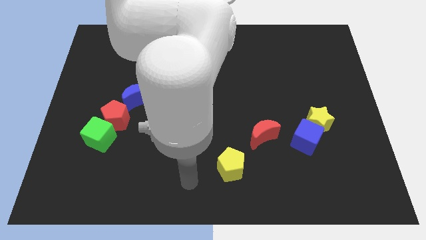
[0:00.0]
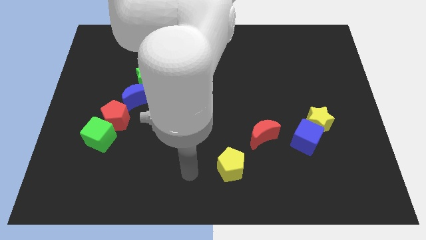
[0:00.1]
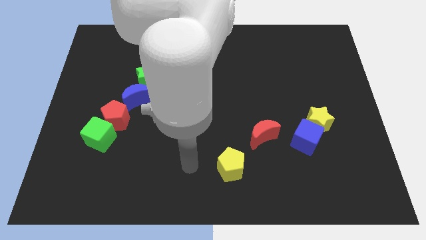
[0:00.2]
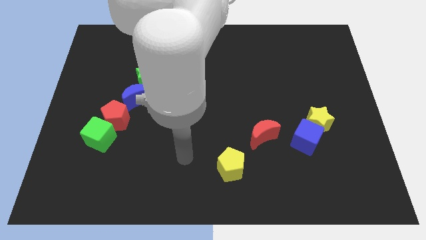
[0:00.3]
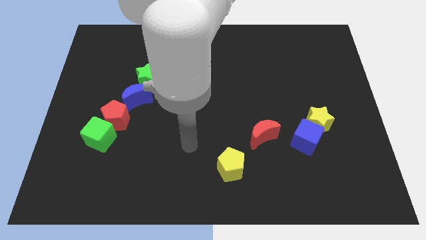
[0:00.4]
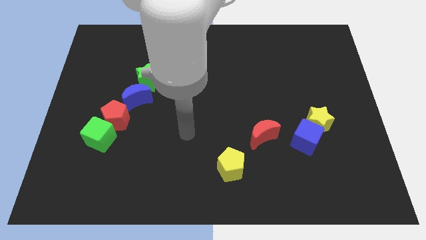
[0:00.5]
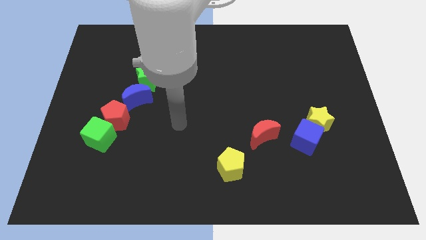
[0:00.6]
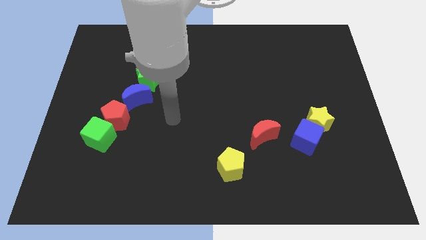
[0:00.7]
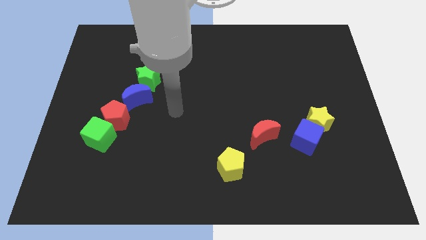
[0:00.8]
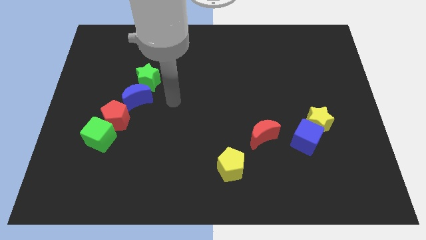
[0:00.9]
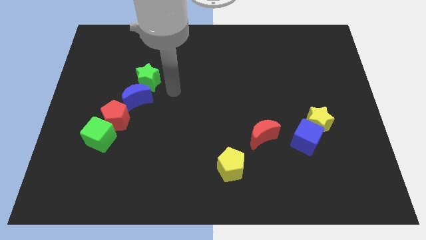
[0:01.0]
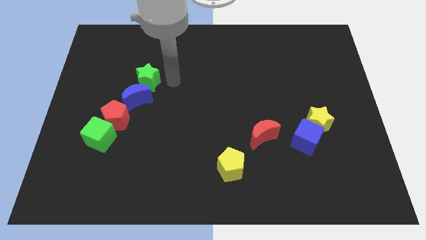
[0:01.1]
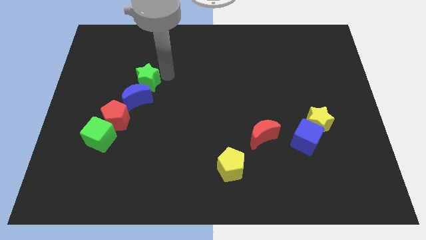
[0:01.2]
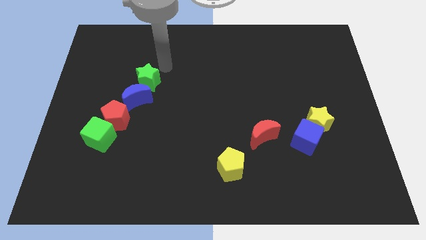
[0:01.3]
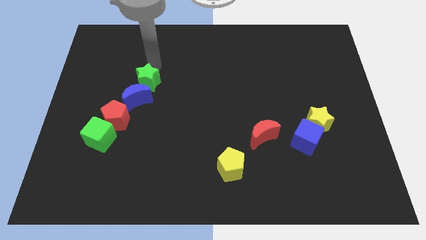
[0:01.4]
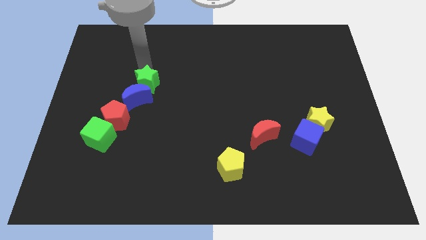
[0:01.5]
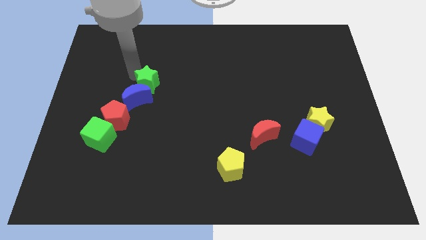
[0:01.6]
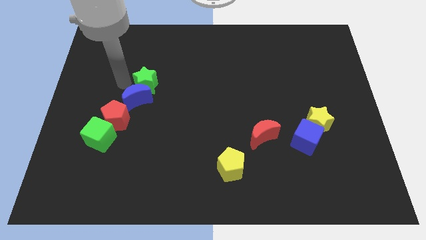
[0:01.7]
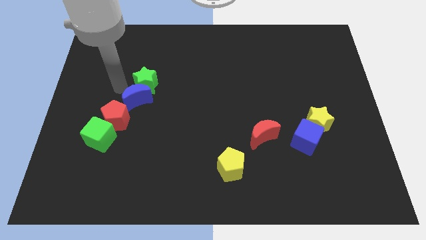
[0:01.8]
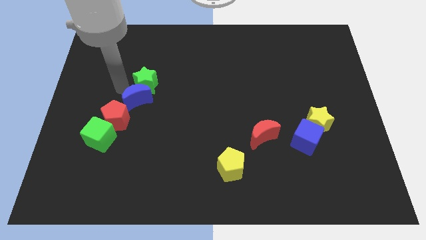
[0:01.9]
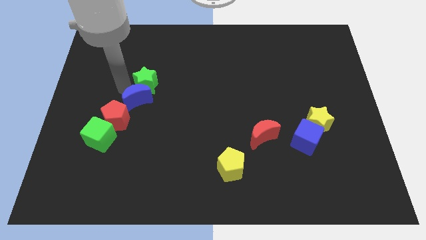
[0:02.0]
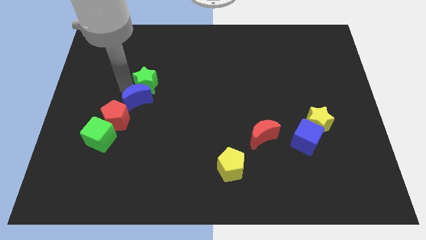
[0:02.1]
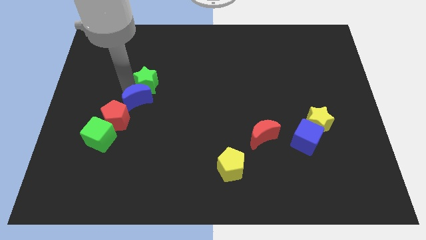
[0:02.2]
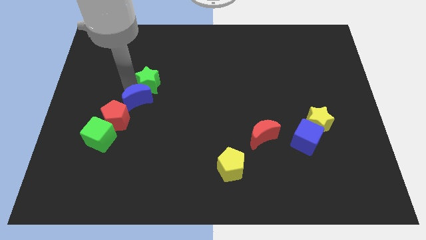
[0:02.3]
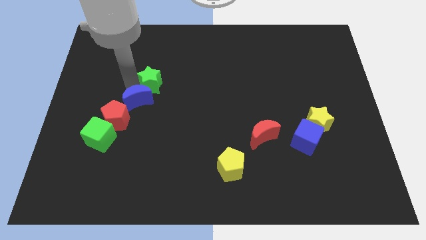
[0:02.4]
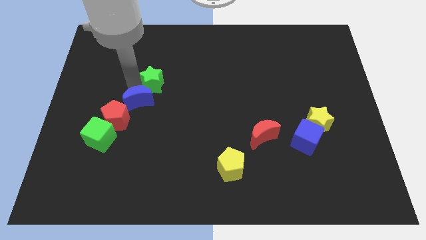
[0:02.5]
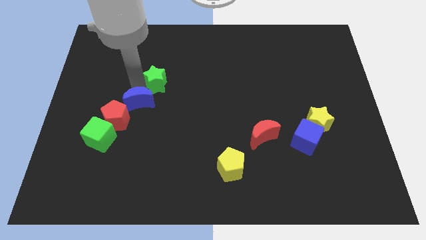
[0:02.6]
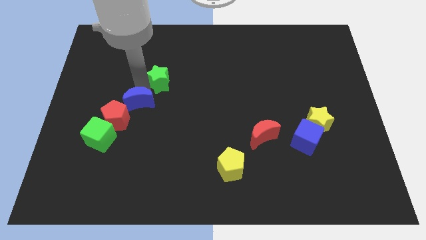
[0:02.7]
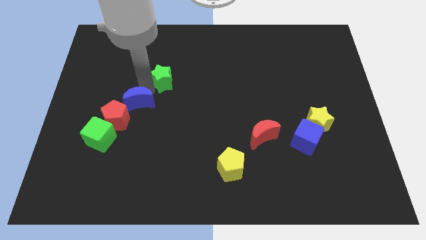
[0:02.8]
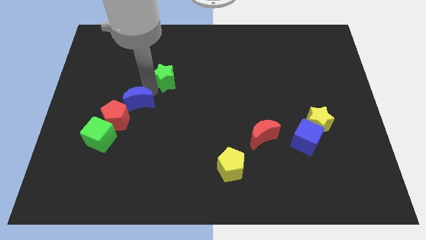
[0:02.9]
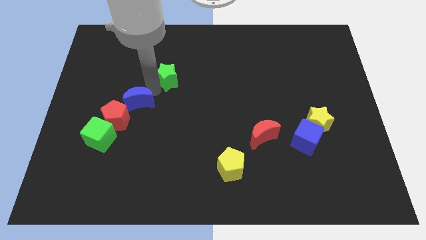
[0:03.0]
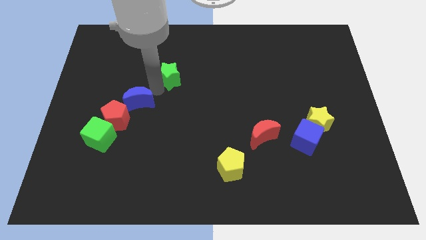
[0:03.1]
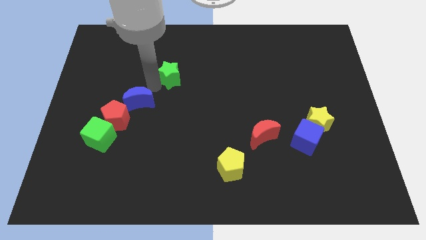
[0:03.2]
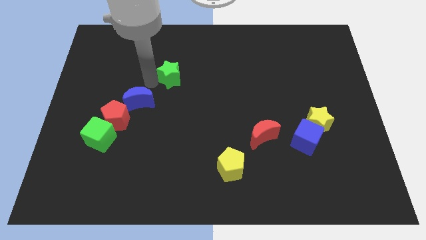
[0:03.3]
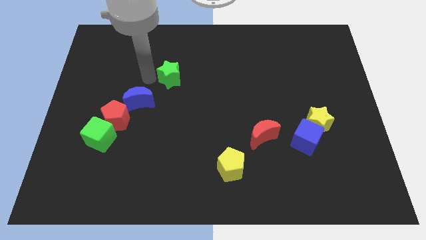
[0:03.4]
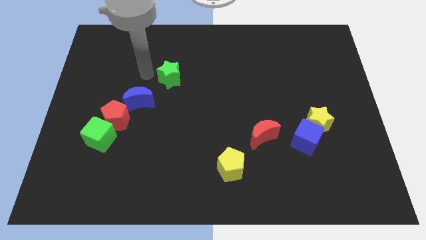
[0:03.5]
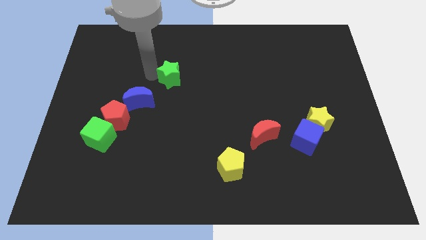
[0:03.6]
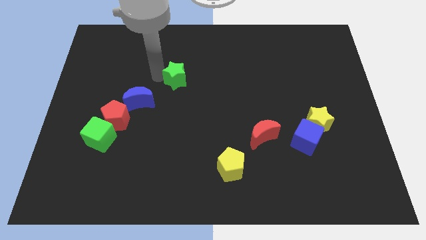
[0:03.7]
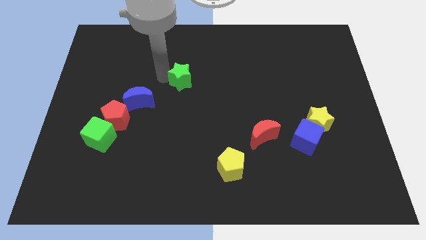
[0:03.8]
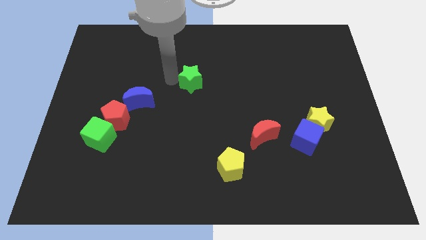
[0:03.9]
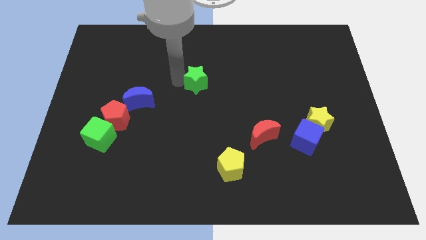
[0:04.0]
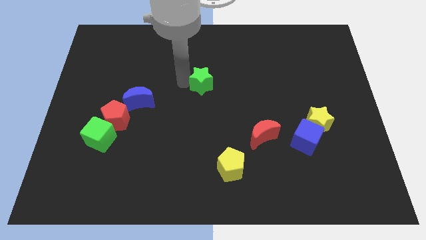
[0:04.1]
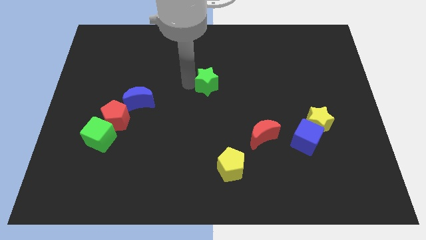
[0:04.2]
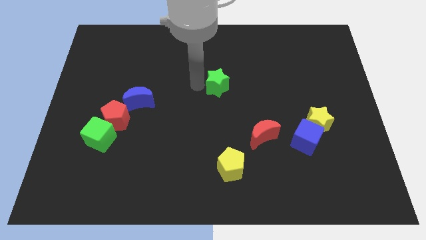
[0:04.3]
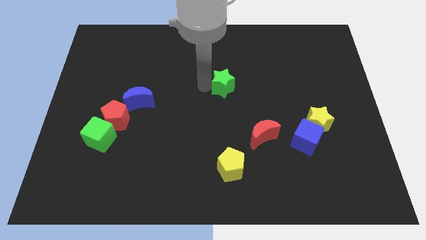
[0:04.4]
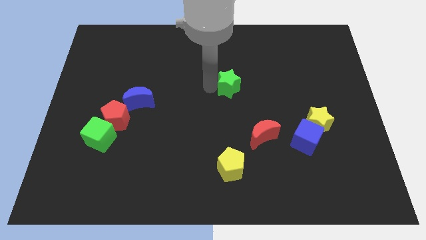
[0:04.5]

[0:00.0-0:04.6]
slide the green star right

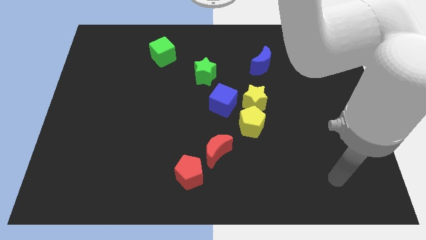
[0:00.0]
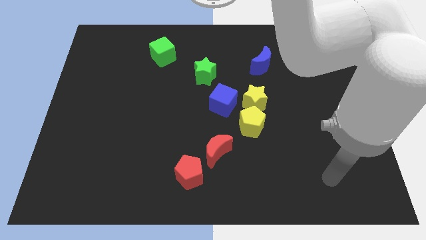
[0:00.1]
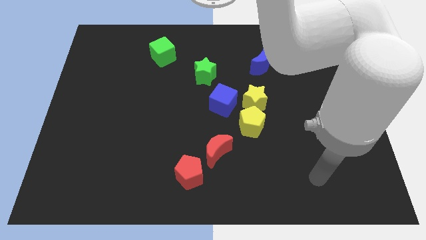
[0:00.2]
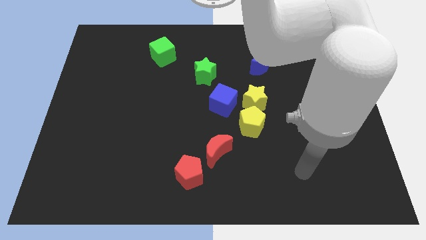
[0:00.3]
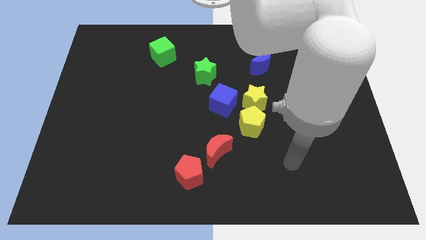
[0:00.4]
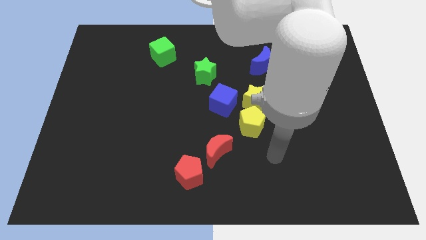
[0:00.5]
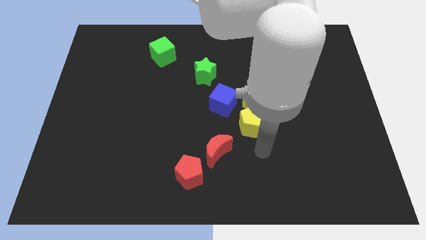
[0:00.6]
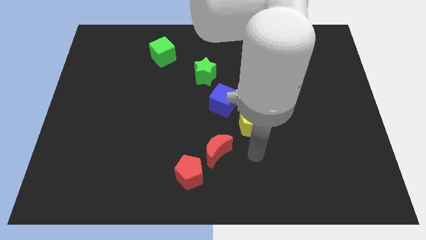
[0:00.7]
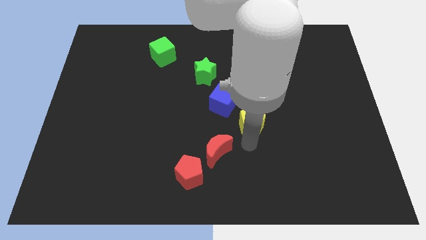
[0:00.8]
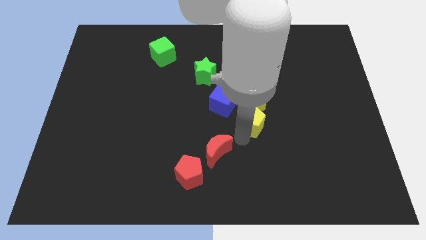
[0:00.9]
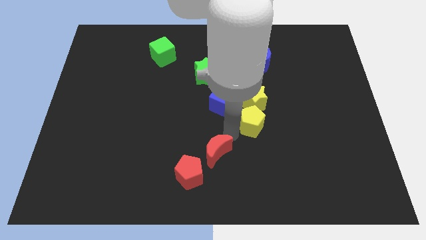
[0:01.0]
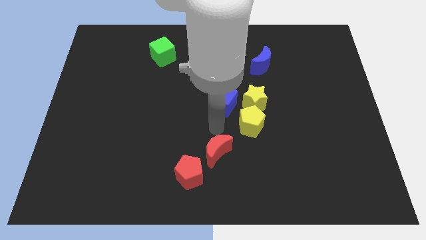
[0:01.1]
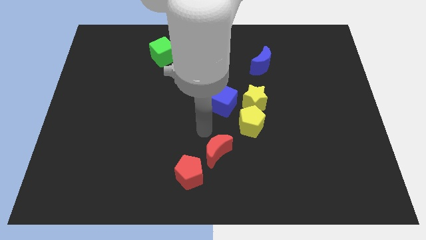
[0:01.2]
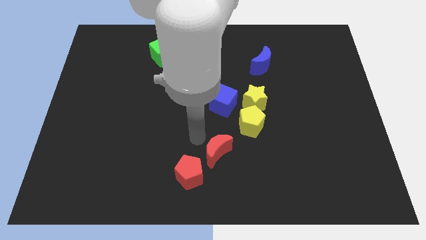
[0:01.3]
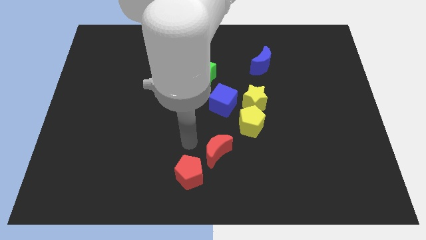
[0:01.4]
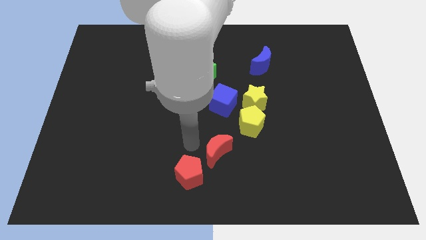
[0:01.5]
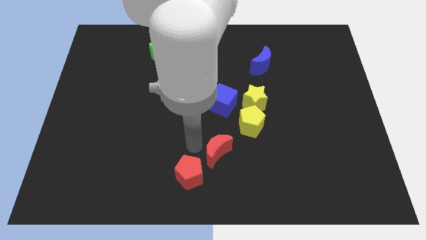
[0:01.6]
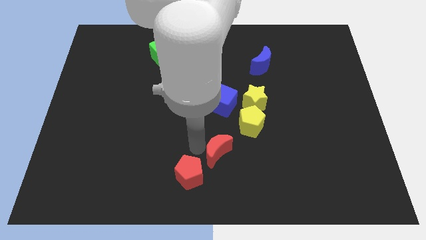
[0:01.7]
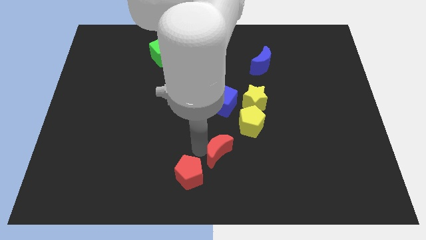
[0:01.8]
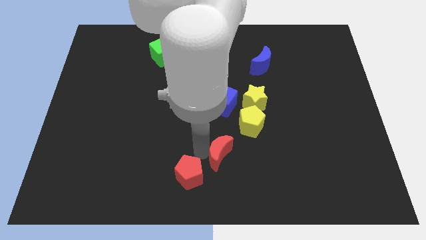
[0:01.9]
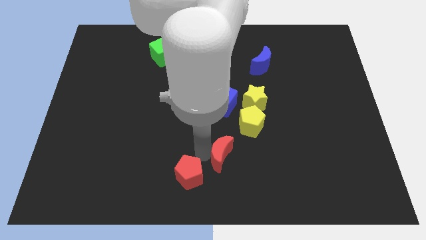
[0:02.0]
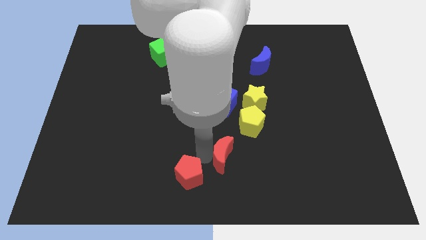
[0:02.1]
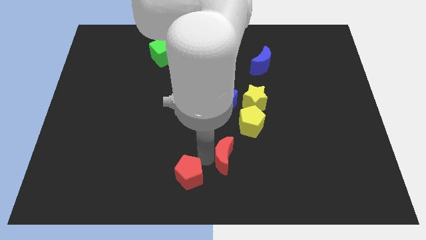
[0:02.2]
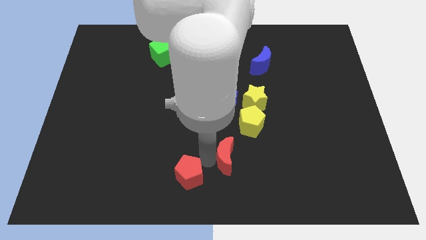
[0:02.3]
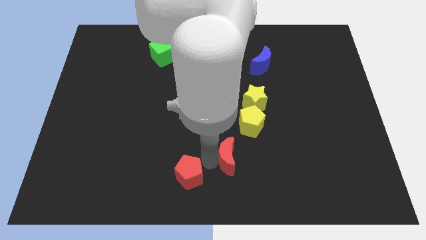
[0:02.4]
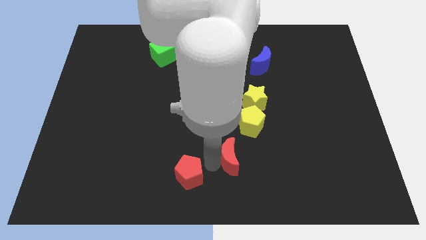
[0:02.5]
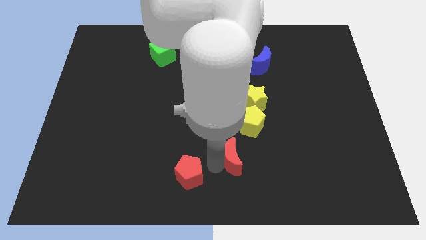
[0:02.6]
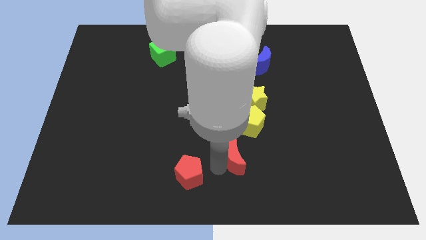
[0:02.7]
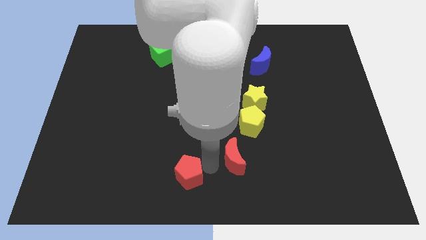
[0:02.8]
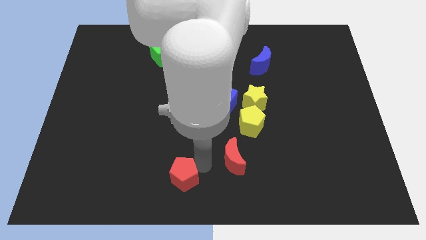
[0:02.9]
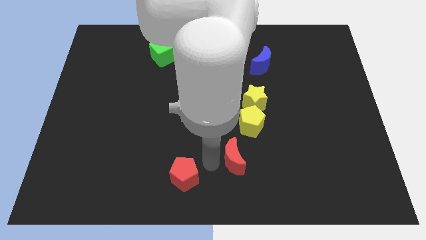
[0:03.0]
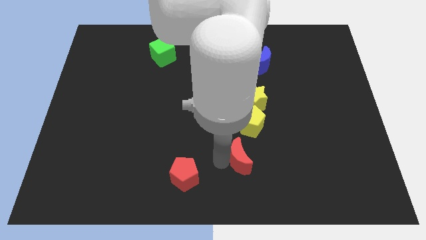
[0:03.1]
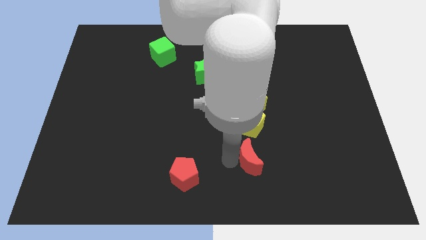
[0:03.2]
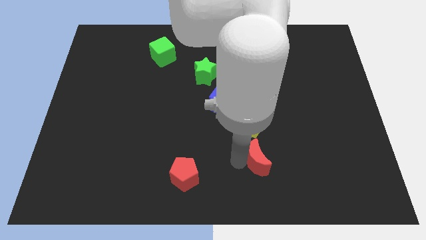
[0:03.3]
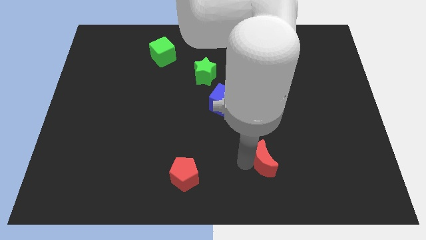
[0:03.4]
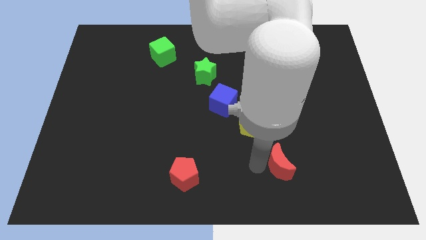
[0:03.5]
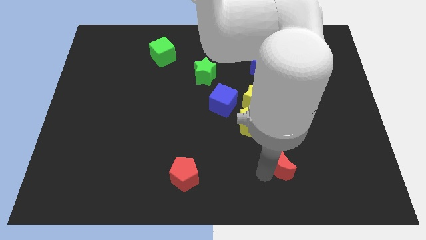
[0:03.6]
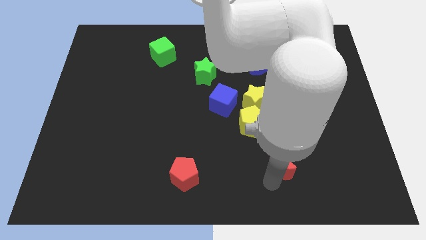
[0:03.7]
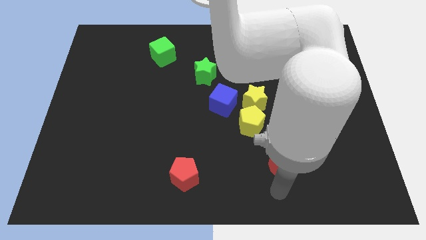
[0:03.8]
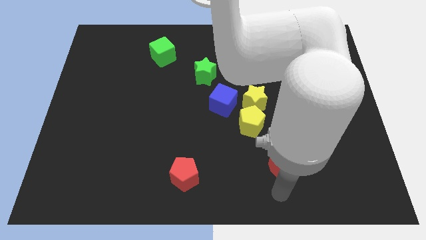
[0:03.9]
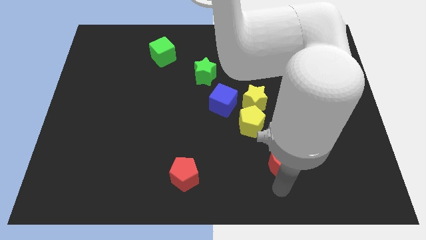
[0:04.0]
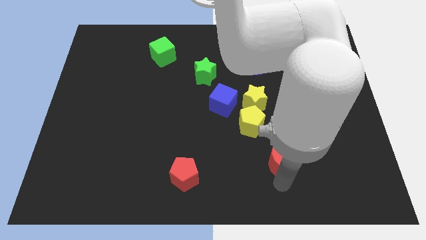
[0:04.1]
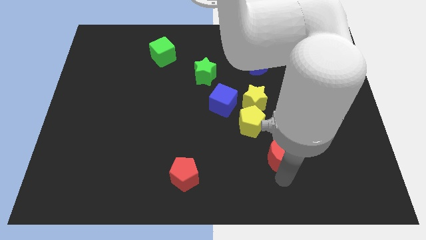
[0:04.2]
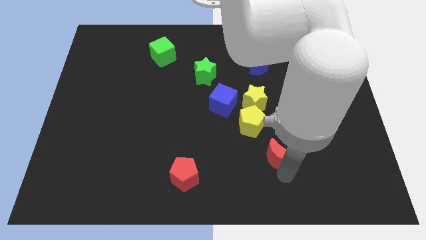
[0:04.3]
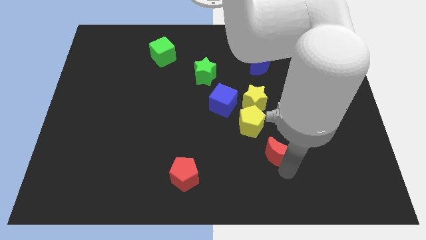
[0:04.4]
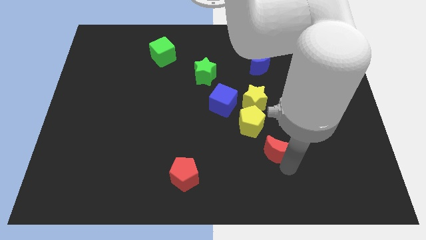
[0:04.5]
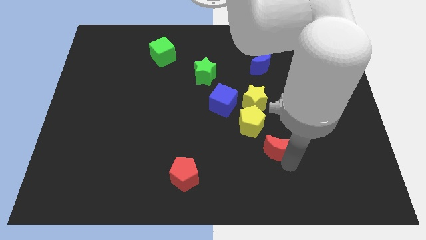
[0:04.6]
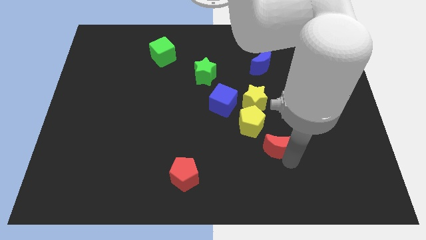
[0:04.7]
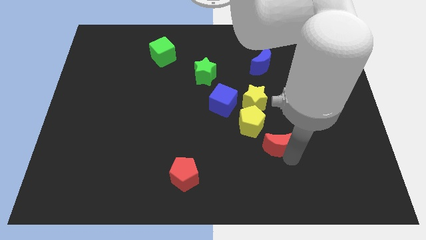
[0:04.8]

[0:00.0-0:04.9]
slide the red moon a little up and then to the right
